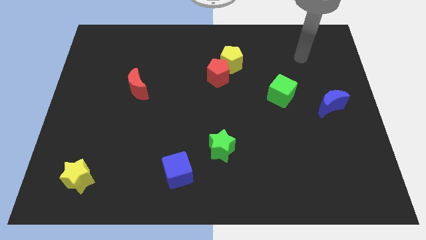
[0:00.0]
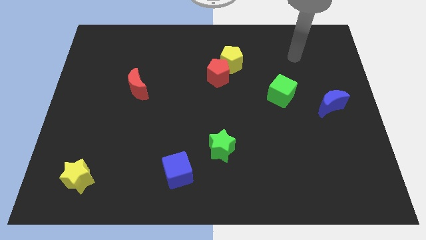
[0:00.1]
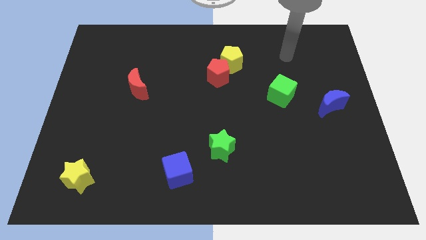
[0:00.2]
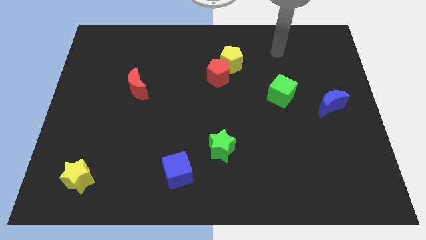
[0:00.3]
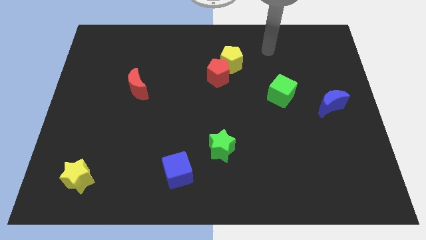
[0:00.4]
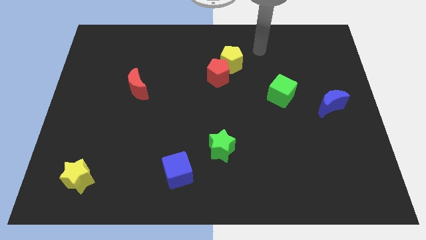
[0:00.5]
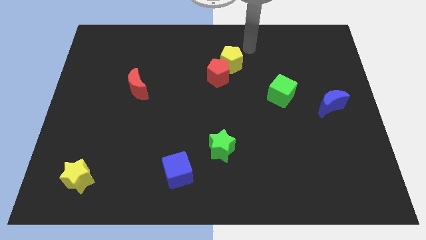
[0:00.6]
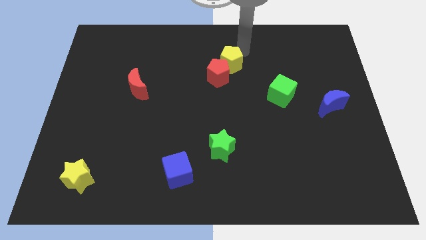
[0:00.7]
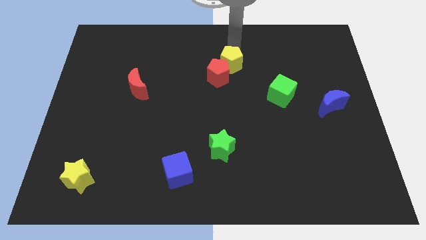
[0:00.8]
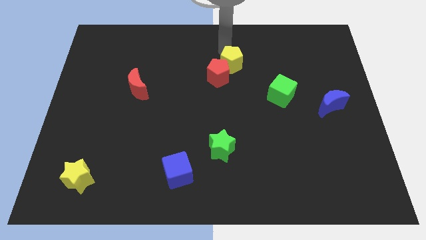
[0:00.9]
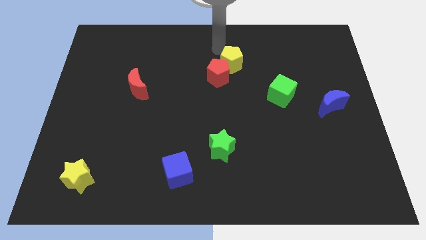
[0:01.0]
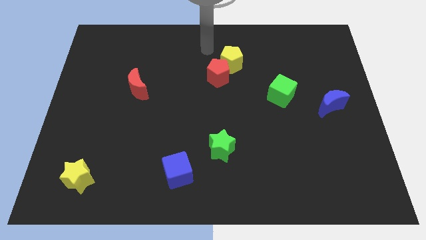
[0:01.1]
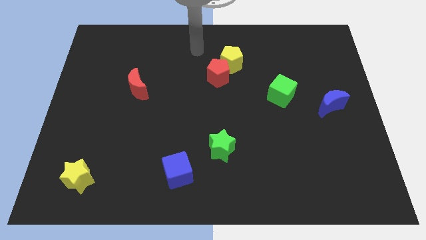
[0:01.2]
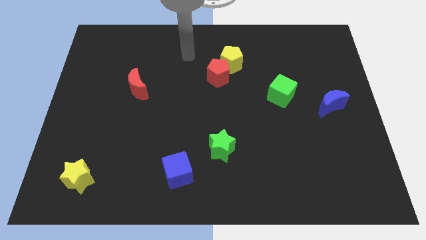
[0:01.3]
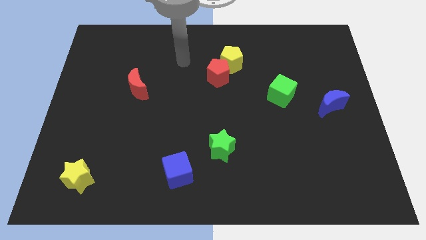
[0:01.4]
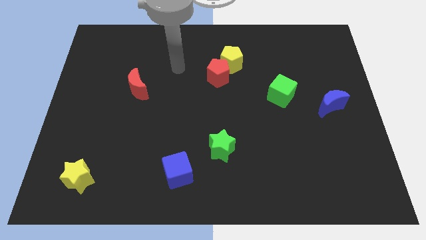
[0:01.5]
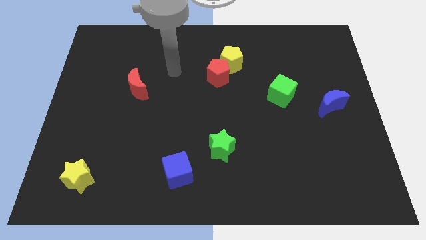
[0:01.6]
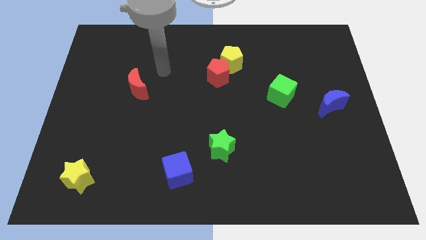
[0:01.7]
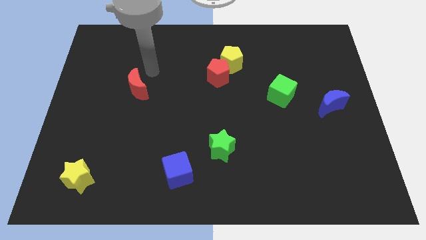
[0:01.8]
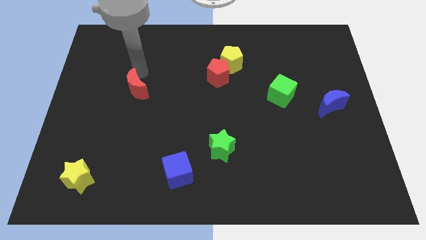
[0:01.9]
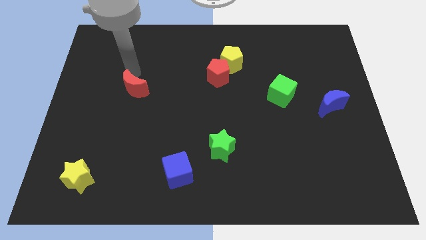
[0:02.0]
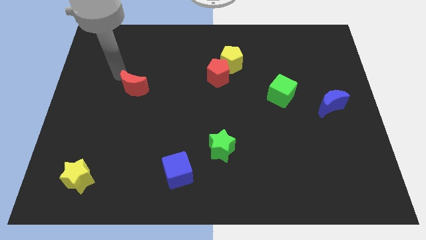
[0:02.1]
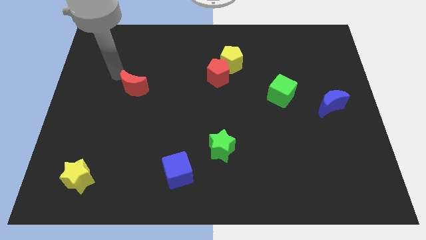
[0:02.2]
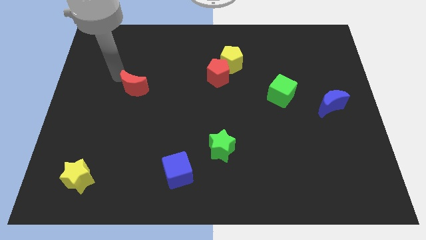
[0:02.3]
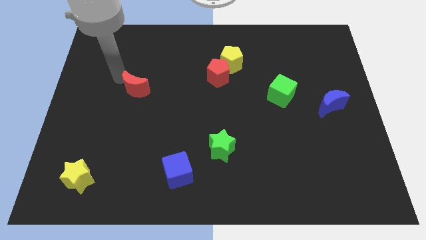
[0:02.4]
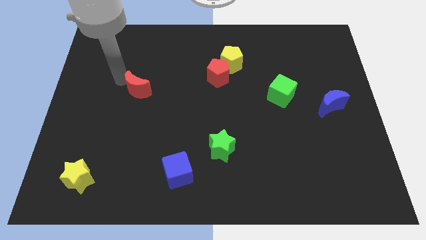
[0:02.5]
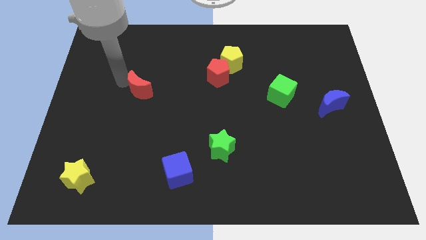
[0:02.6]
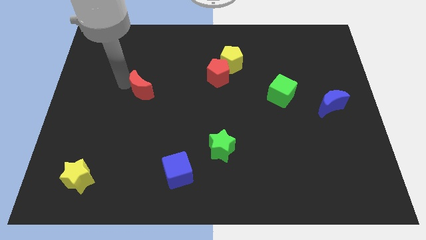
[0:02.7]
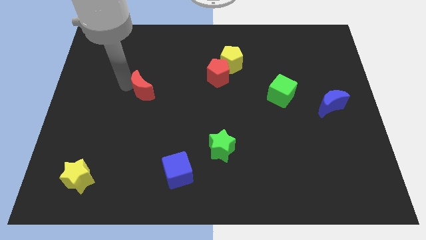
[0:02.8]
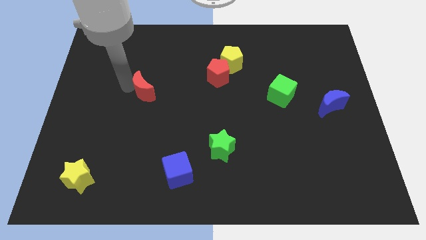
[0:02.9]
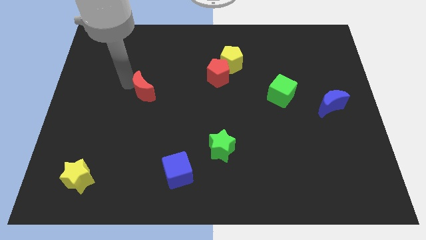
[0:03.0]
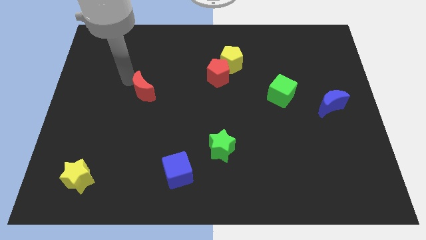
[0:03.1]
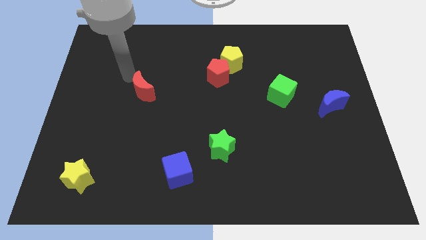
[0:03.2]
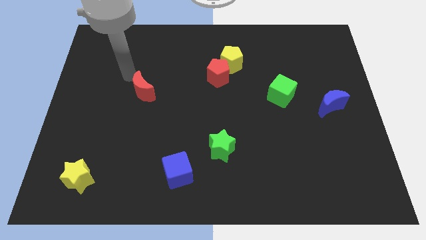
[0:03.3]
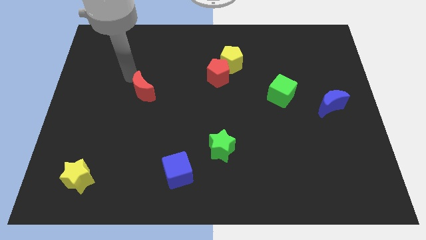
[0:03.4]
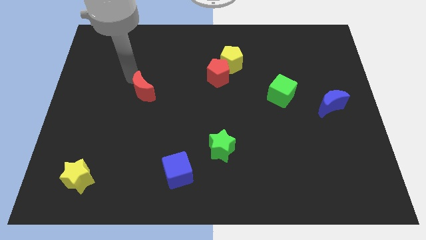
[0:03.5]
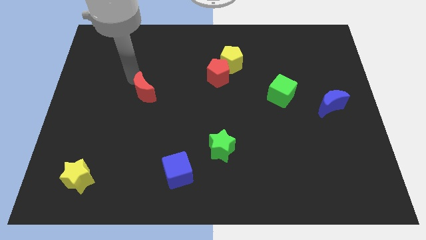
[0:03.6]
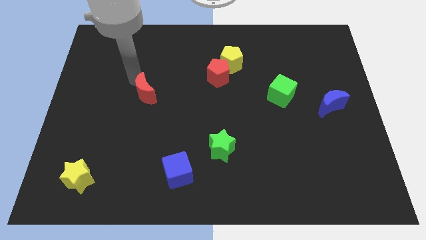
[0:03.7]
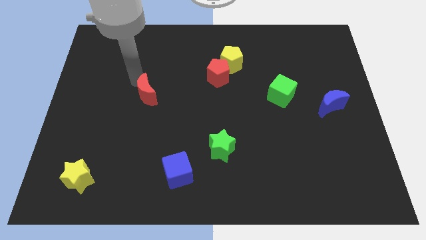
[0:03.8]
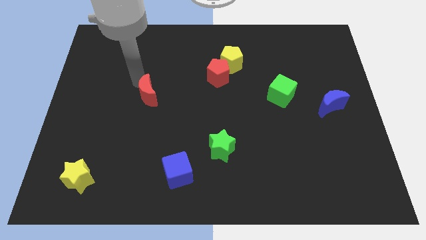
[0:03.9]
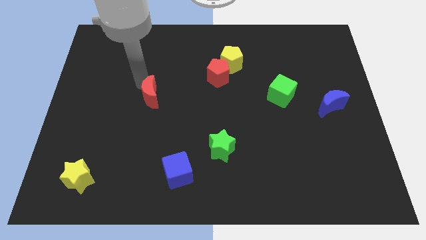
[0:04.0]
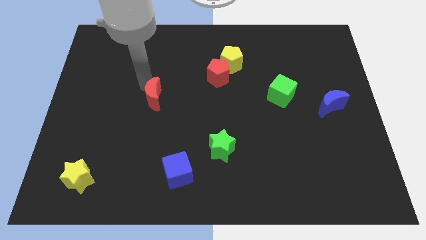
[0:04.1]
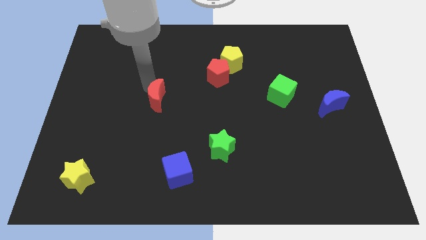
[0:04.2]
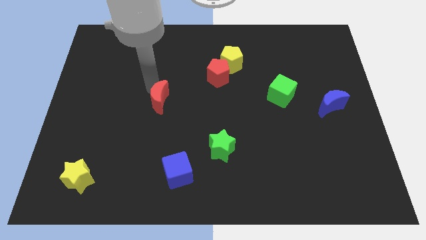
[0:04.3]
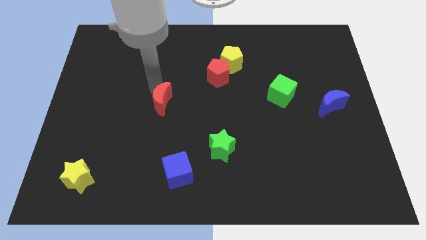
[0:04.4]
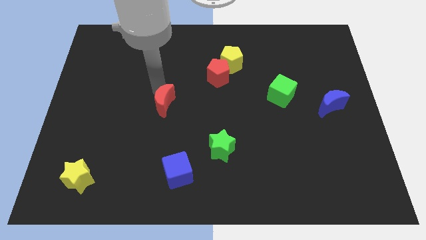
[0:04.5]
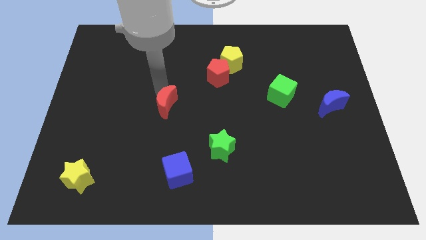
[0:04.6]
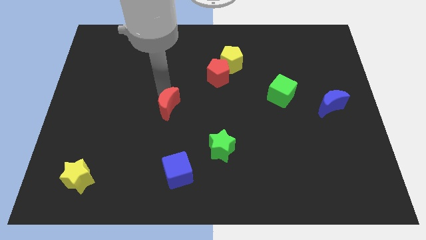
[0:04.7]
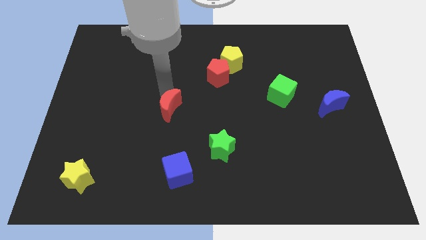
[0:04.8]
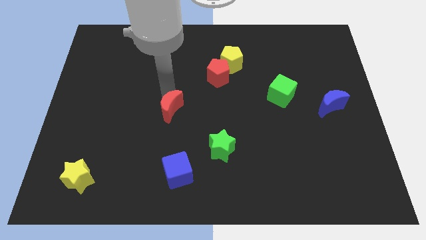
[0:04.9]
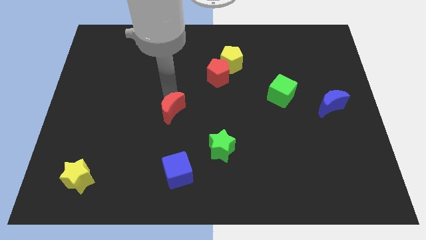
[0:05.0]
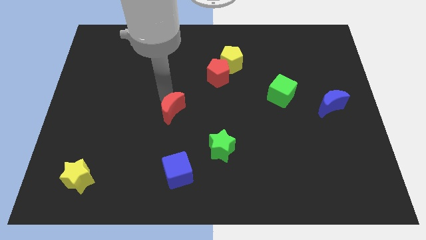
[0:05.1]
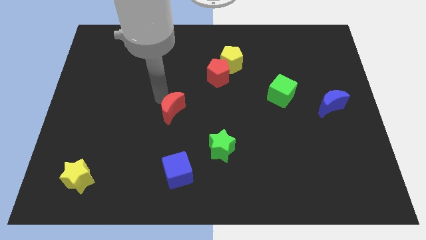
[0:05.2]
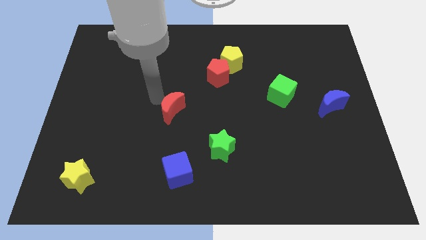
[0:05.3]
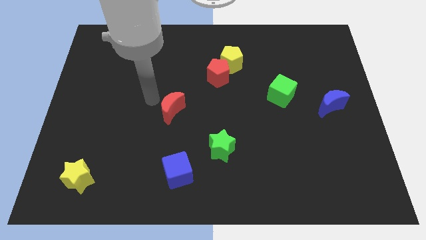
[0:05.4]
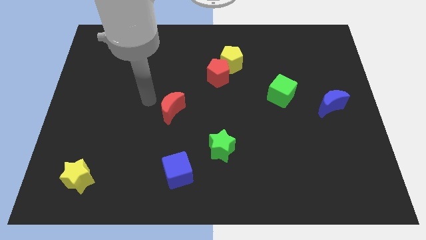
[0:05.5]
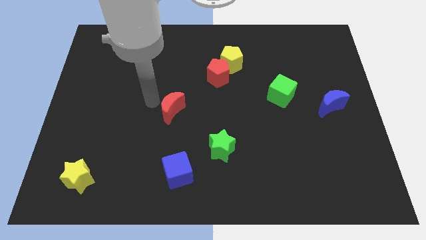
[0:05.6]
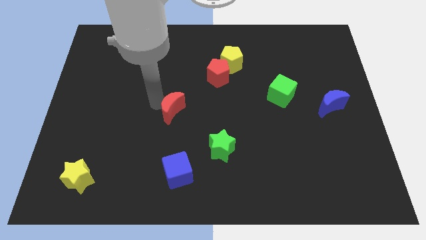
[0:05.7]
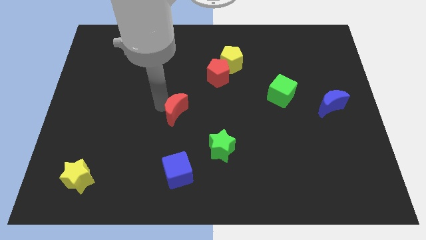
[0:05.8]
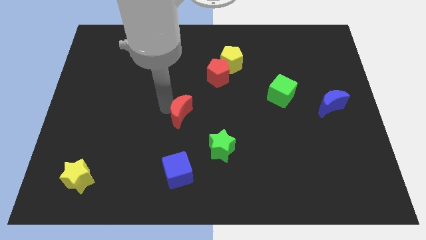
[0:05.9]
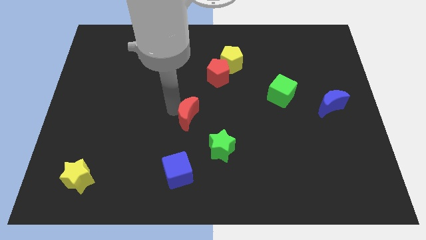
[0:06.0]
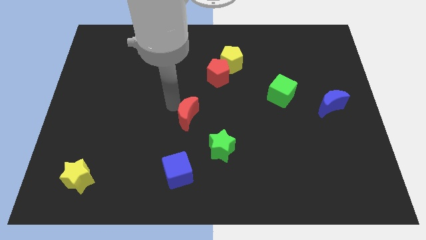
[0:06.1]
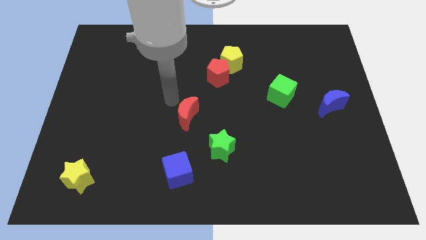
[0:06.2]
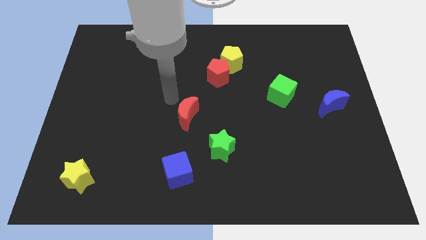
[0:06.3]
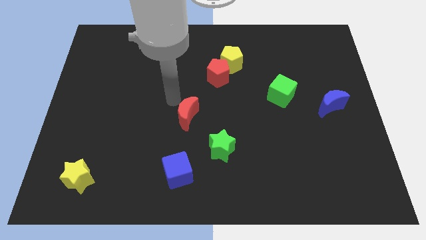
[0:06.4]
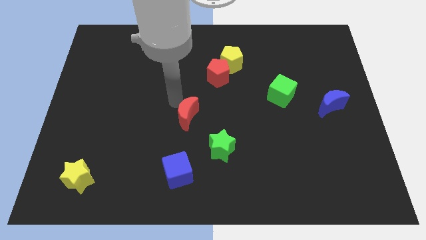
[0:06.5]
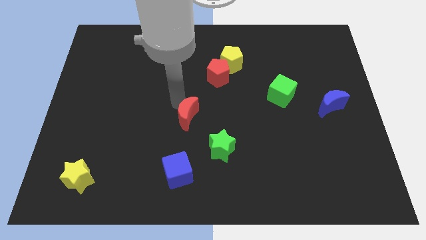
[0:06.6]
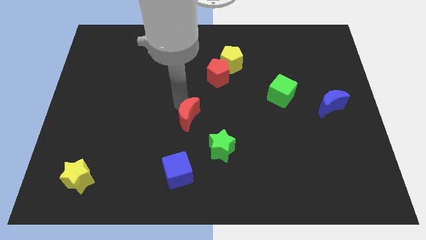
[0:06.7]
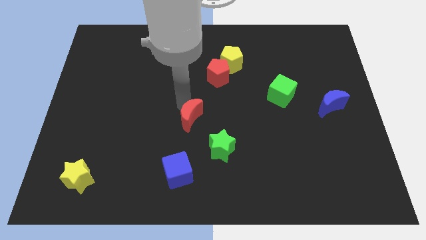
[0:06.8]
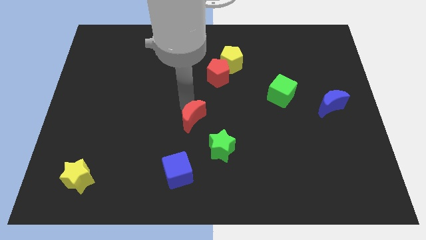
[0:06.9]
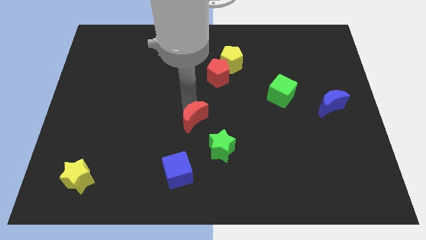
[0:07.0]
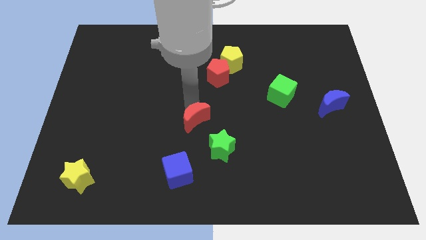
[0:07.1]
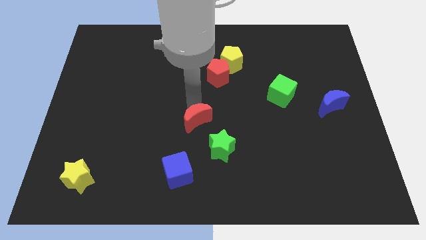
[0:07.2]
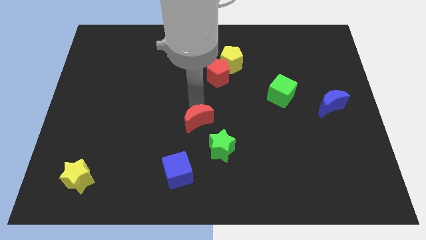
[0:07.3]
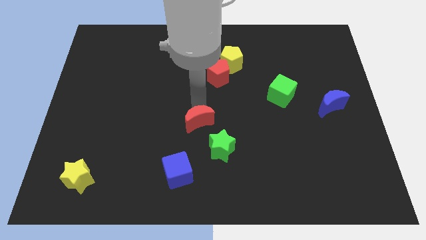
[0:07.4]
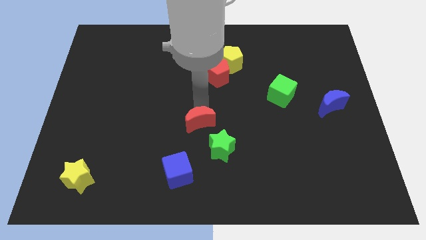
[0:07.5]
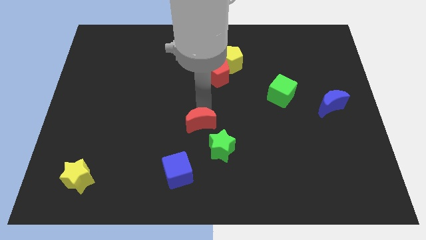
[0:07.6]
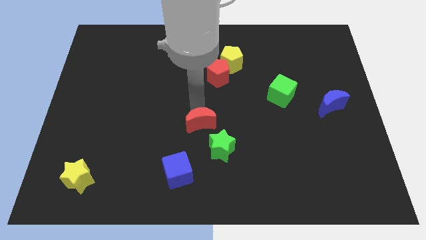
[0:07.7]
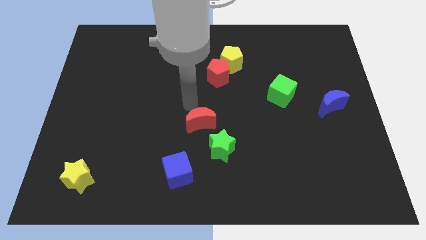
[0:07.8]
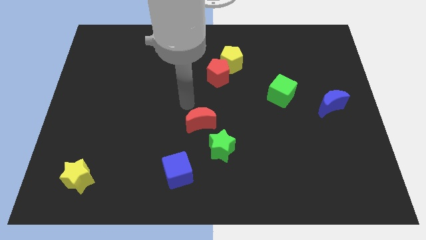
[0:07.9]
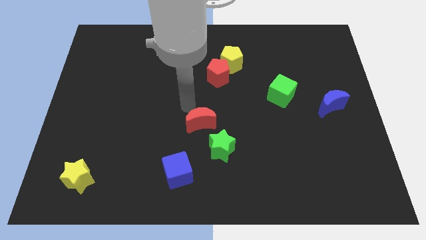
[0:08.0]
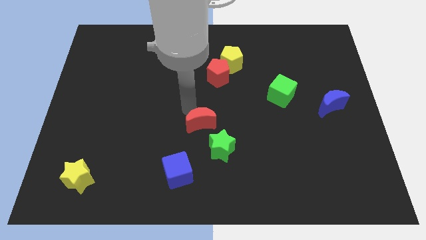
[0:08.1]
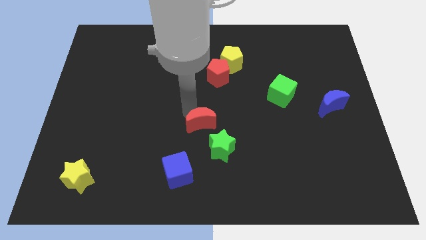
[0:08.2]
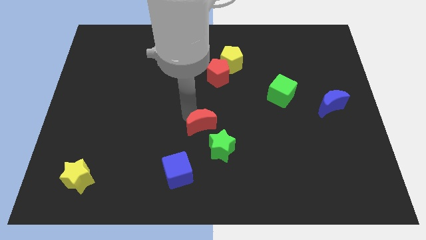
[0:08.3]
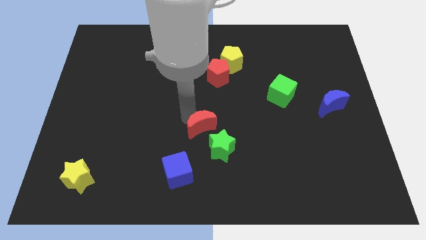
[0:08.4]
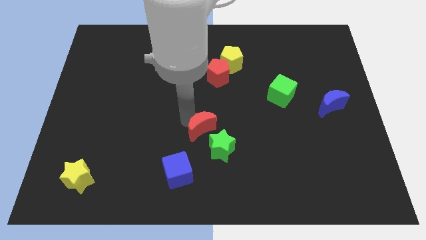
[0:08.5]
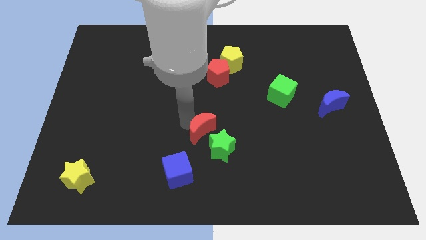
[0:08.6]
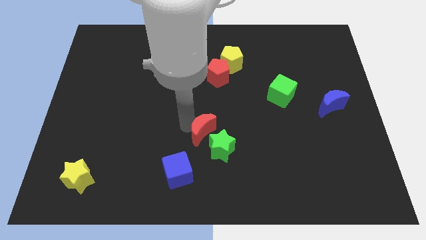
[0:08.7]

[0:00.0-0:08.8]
move the red moon next to the green star
